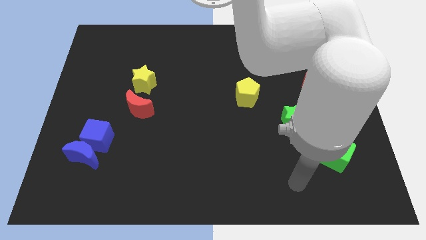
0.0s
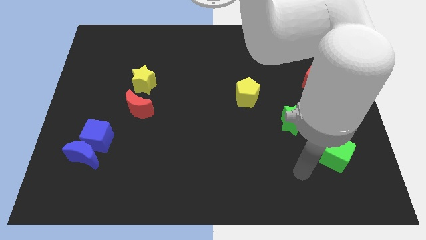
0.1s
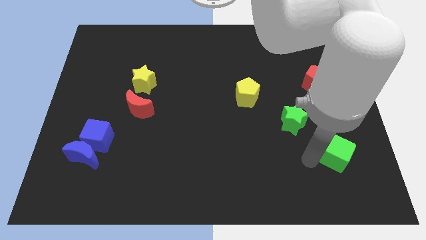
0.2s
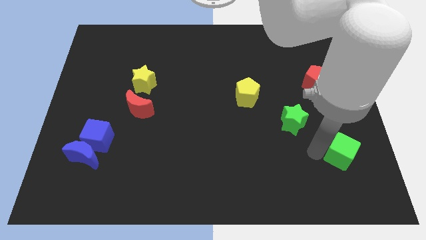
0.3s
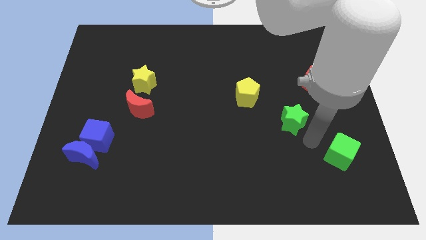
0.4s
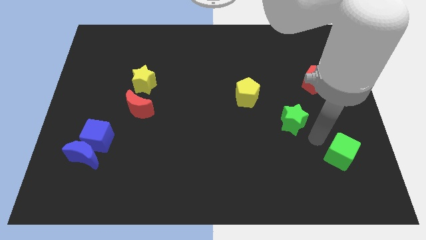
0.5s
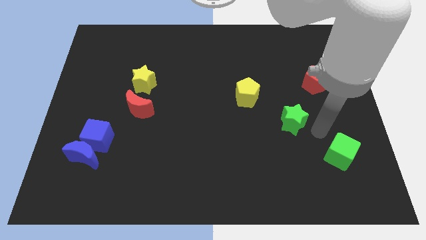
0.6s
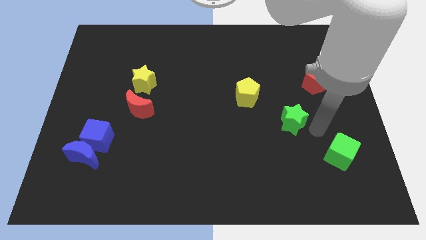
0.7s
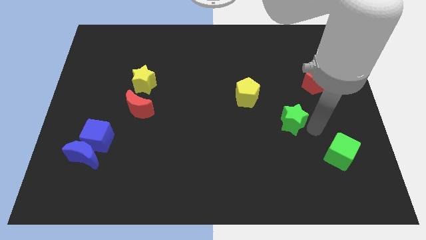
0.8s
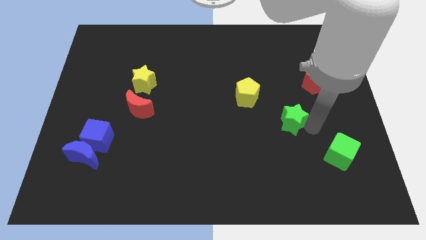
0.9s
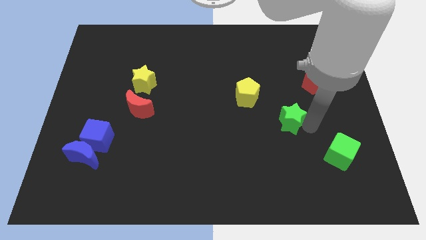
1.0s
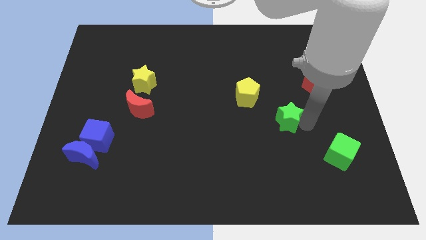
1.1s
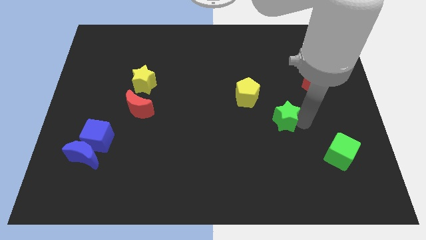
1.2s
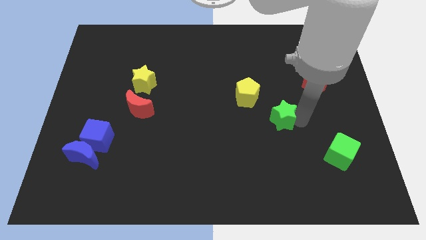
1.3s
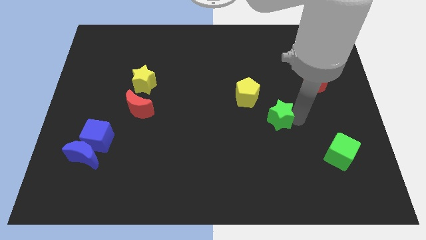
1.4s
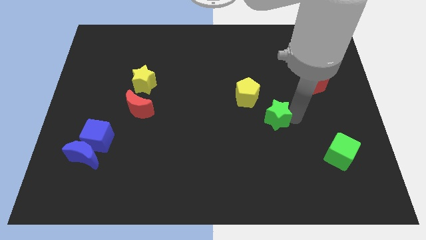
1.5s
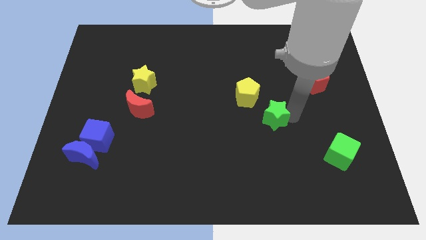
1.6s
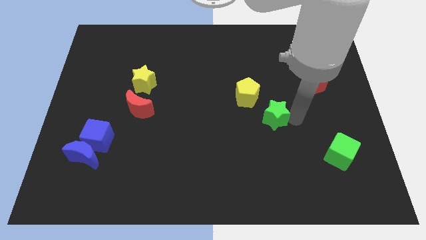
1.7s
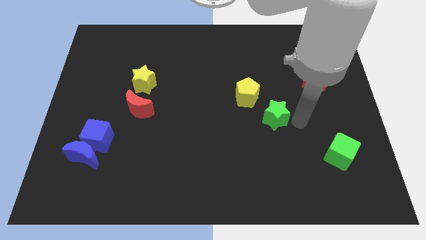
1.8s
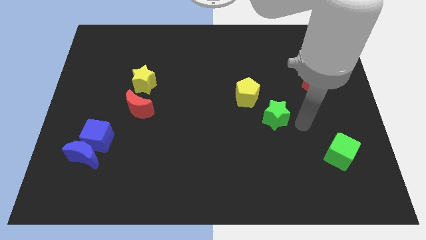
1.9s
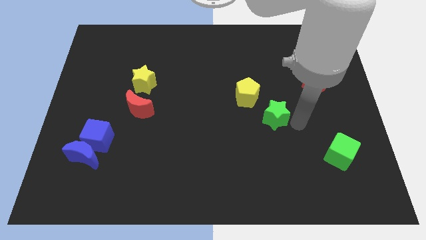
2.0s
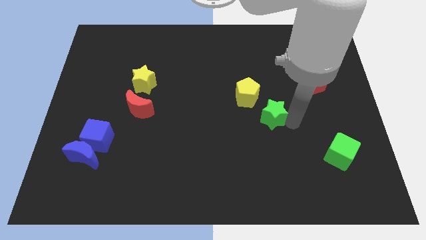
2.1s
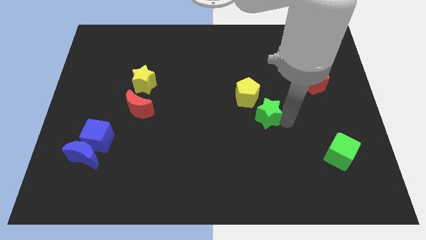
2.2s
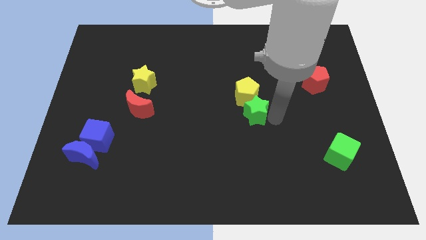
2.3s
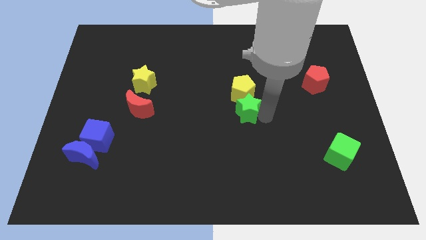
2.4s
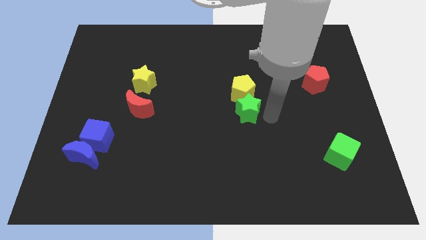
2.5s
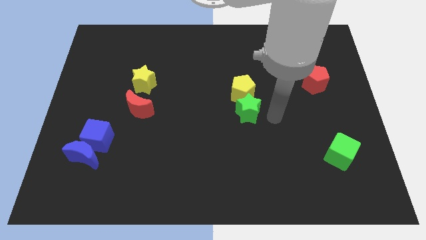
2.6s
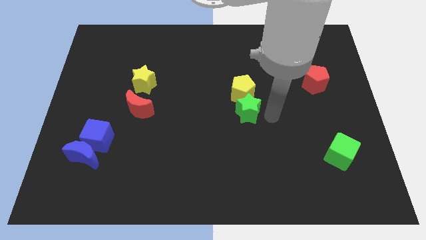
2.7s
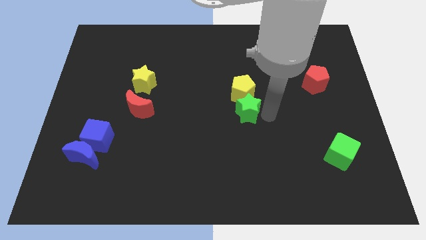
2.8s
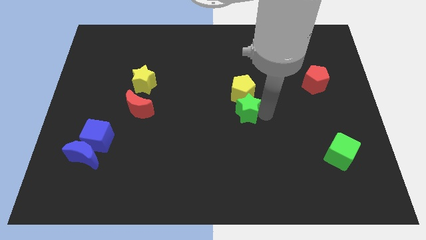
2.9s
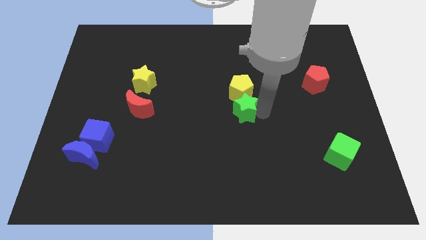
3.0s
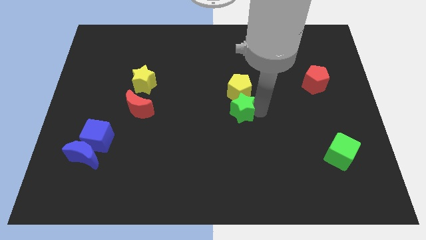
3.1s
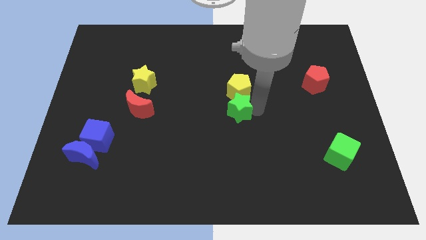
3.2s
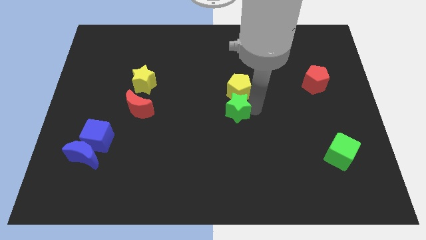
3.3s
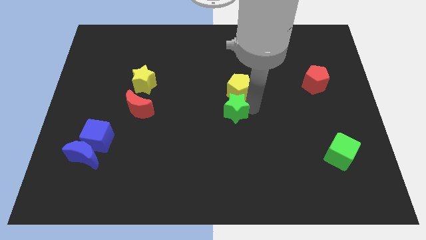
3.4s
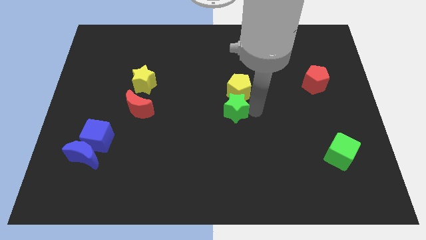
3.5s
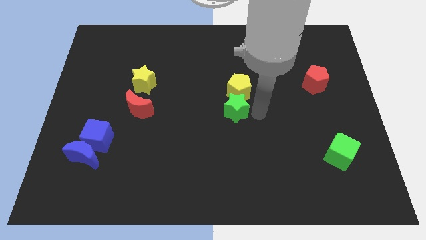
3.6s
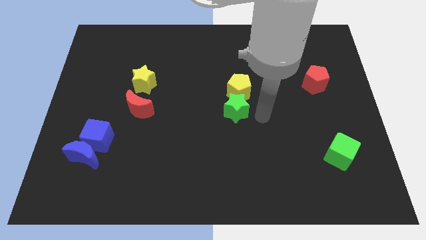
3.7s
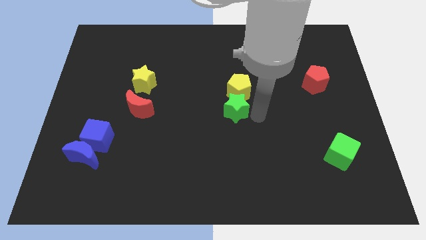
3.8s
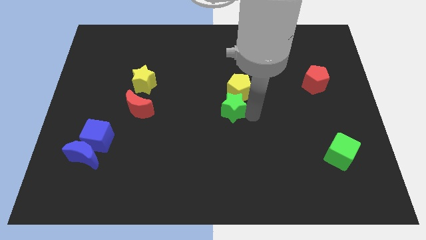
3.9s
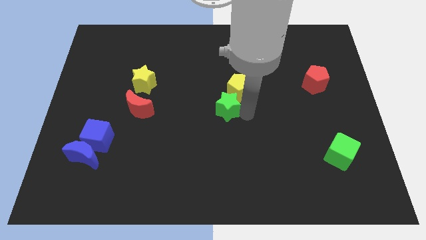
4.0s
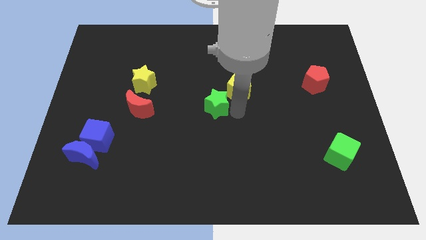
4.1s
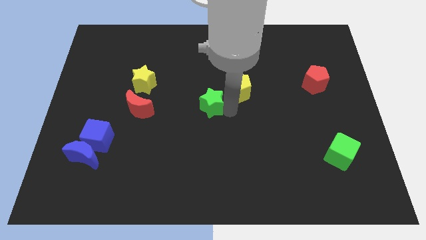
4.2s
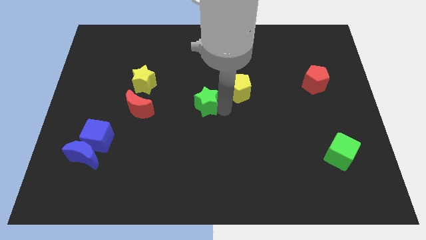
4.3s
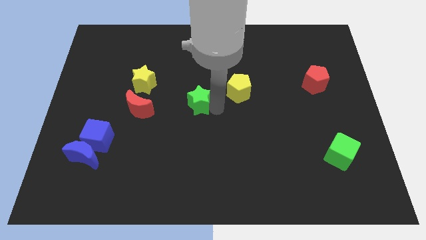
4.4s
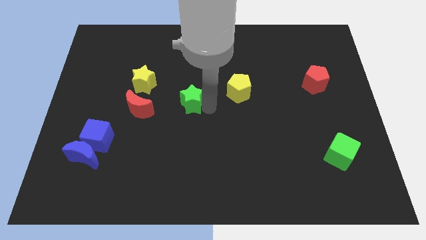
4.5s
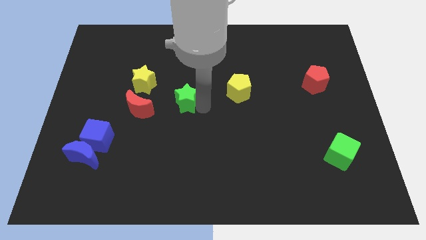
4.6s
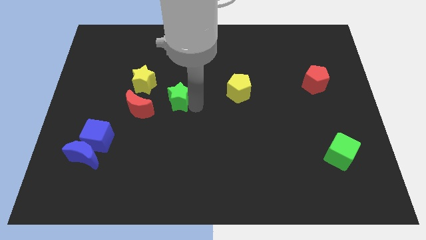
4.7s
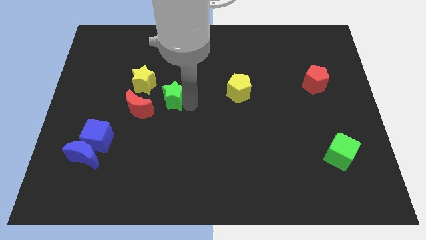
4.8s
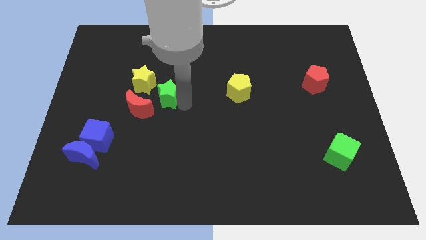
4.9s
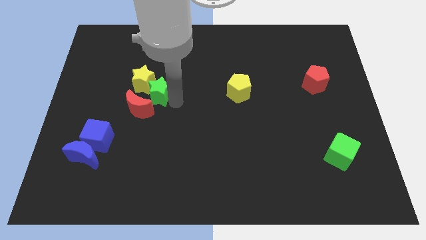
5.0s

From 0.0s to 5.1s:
move the green star towards the yellow star

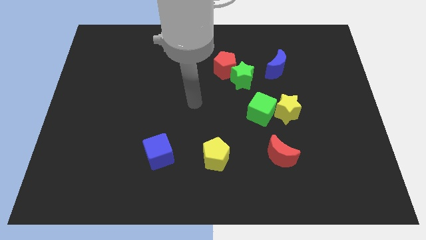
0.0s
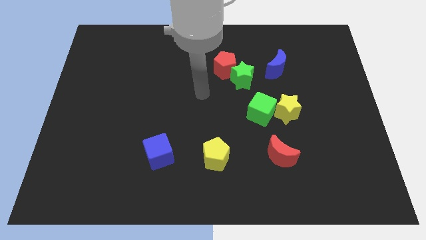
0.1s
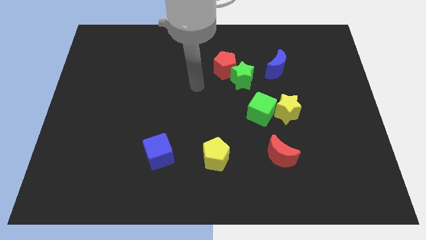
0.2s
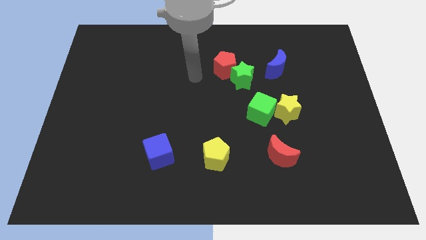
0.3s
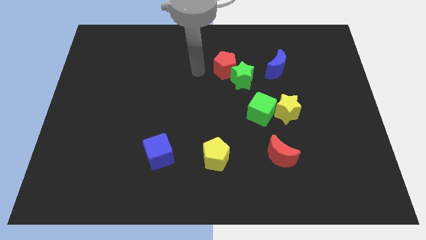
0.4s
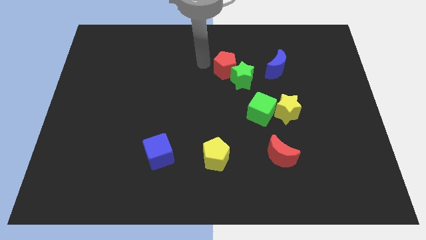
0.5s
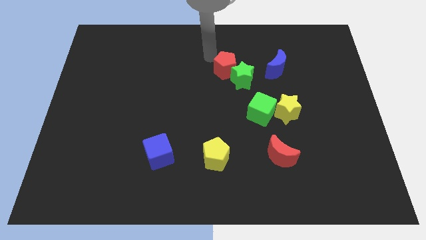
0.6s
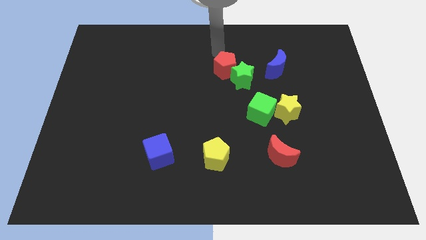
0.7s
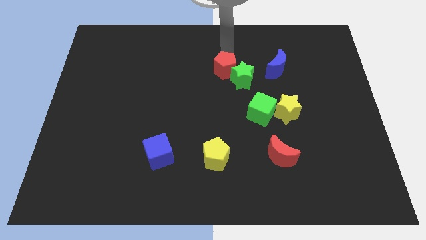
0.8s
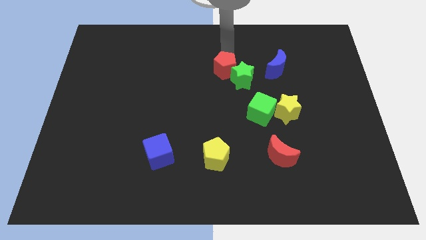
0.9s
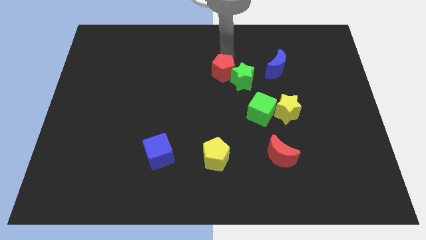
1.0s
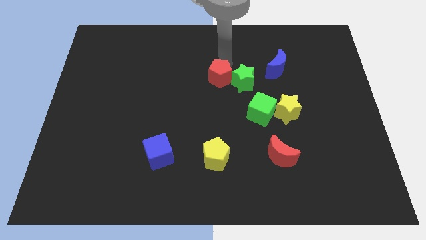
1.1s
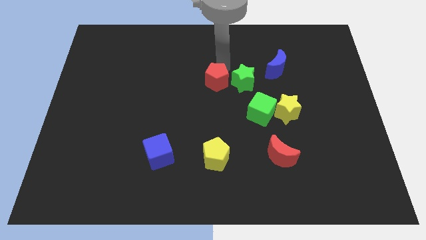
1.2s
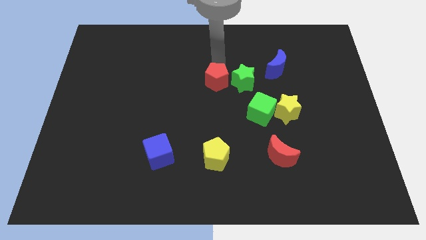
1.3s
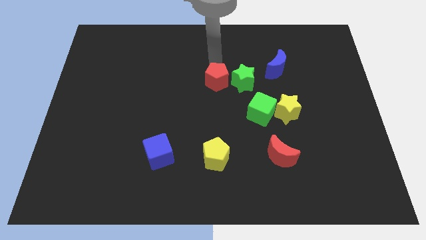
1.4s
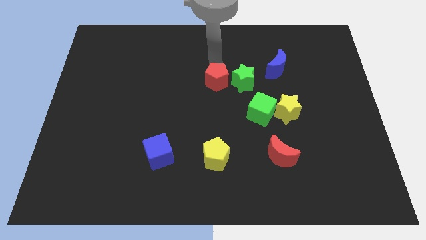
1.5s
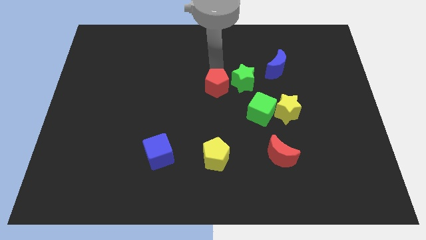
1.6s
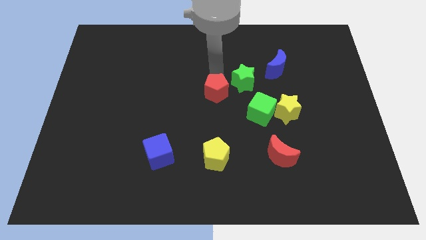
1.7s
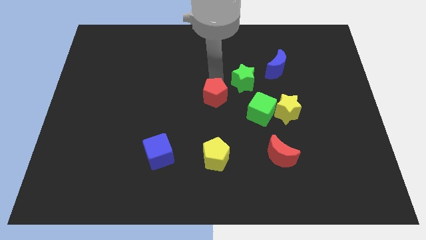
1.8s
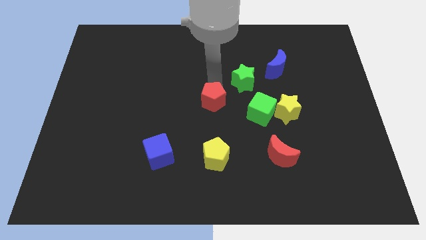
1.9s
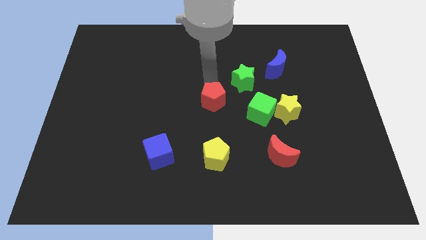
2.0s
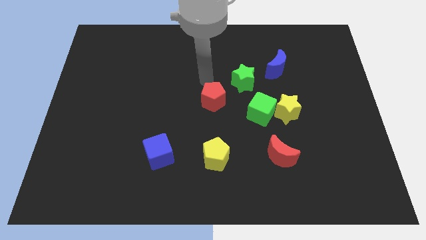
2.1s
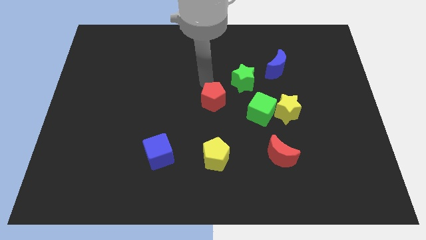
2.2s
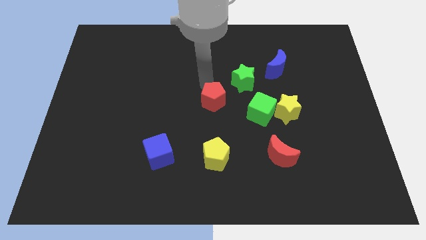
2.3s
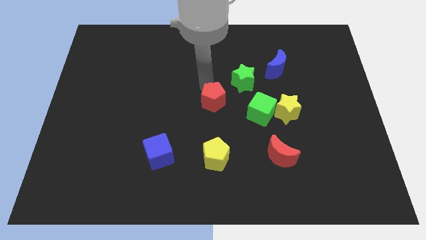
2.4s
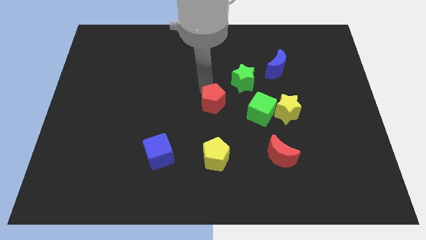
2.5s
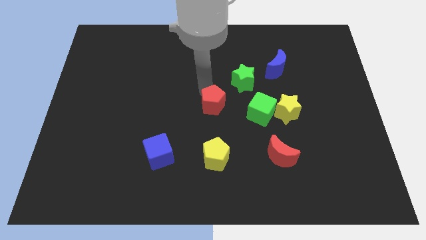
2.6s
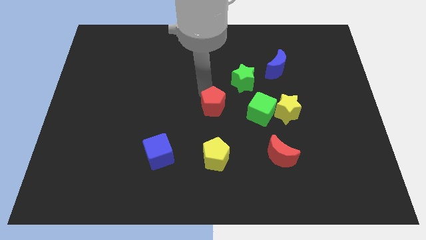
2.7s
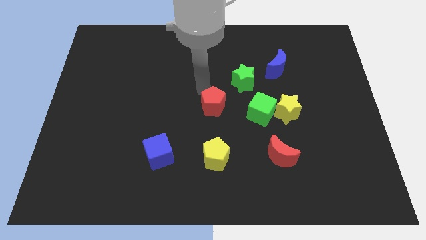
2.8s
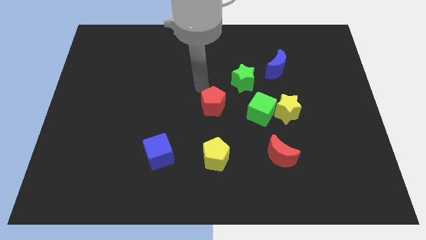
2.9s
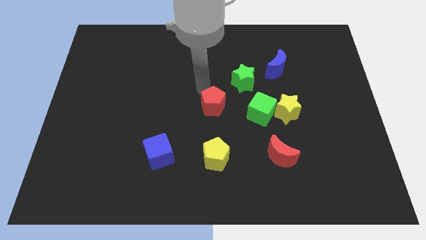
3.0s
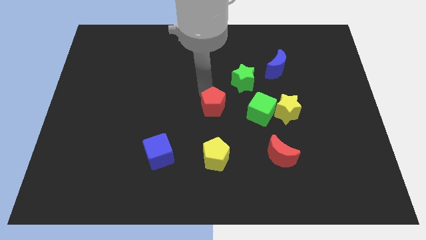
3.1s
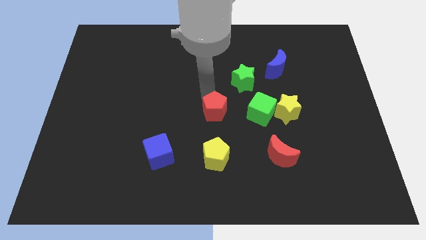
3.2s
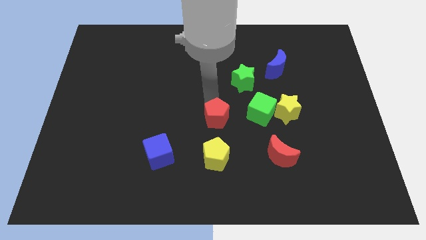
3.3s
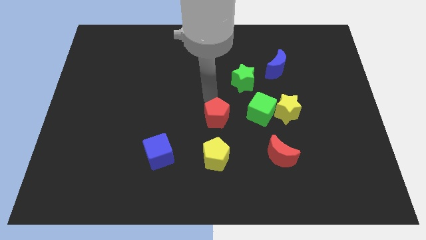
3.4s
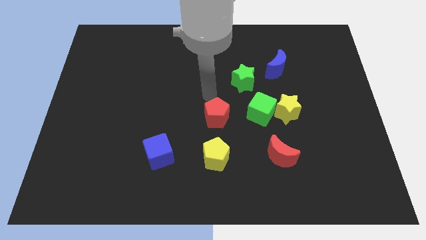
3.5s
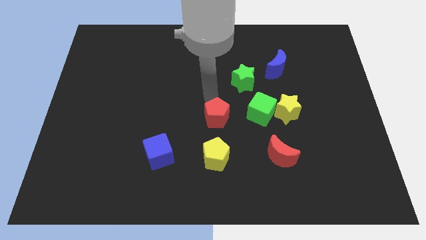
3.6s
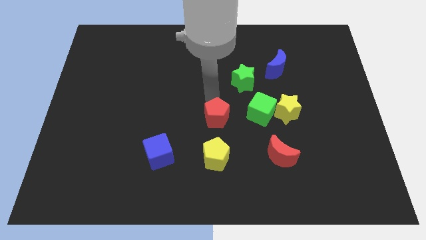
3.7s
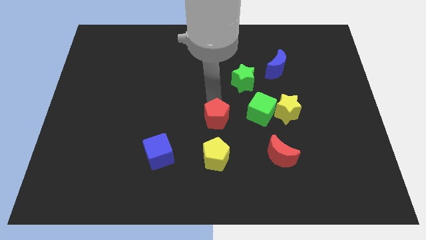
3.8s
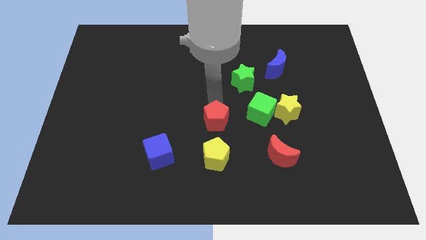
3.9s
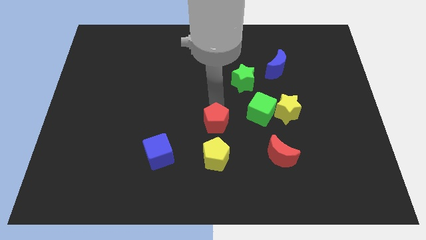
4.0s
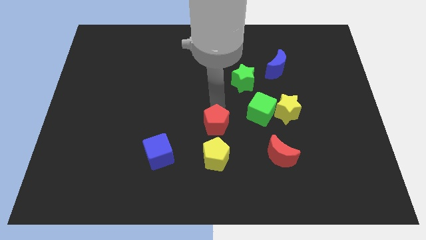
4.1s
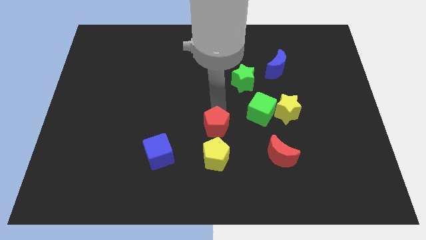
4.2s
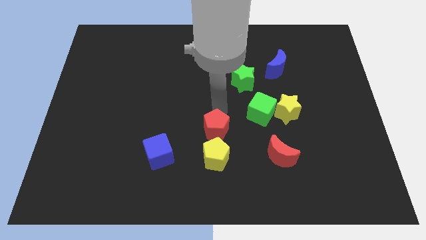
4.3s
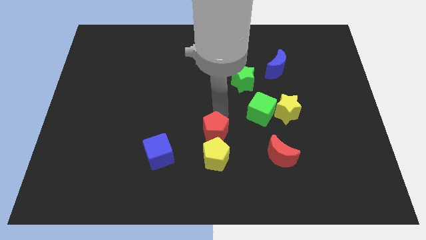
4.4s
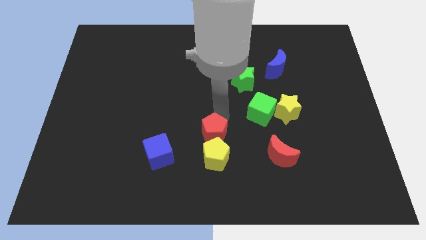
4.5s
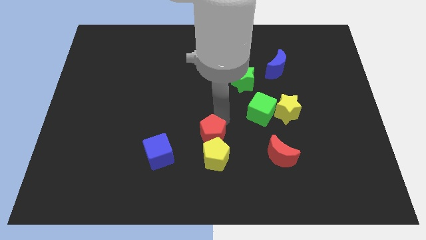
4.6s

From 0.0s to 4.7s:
put the red pentagon to the yellow pentagon
